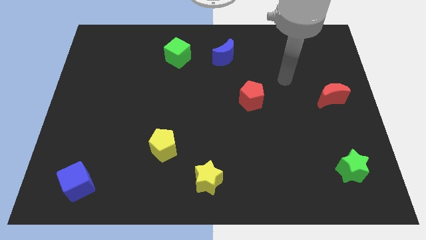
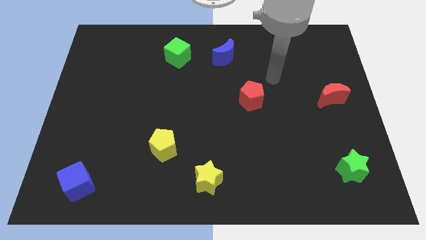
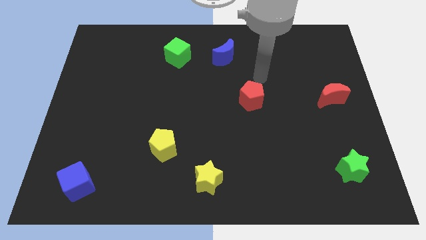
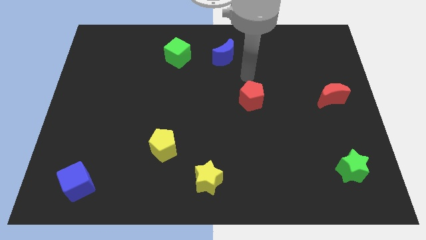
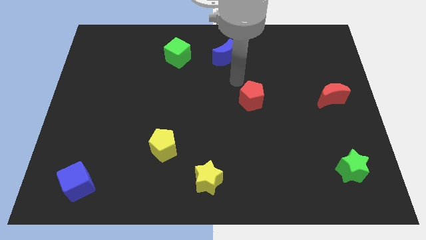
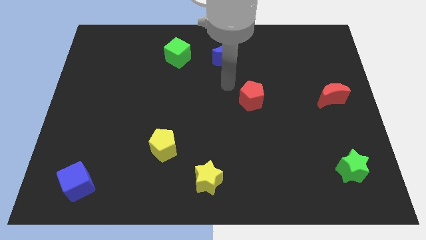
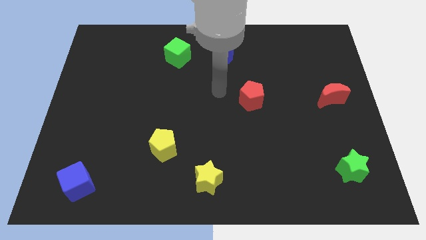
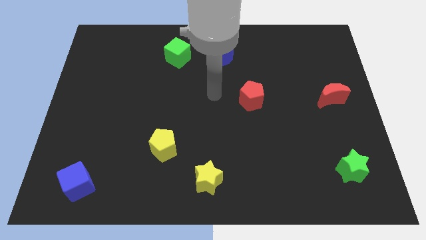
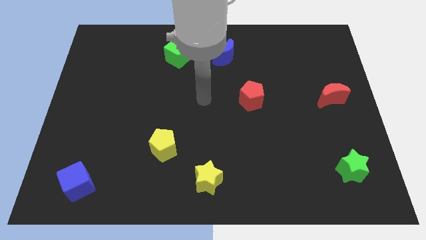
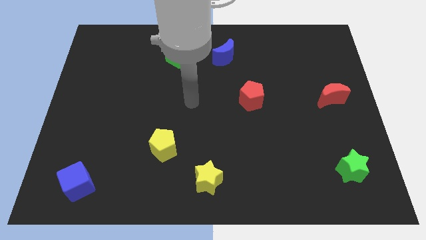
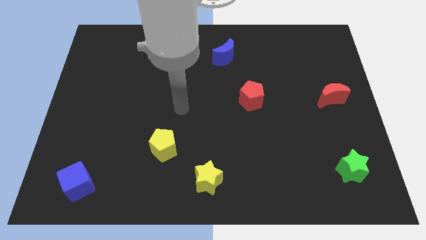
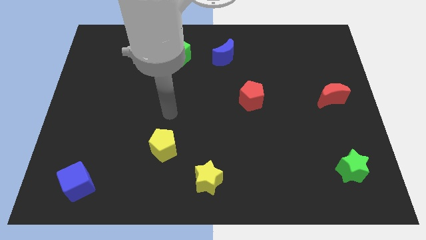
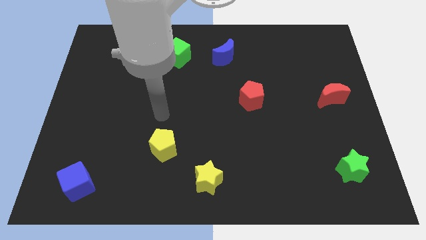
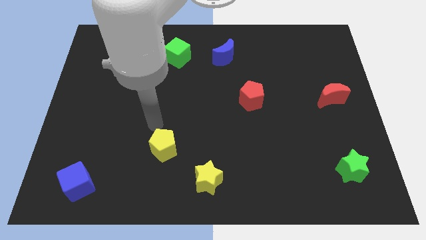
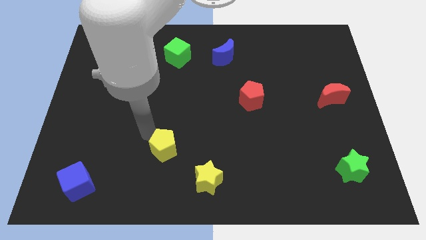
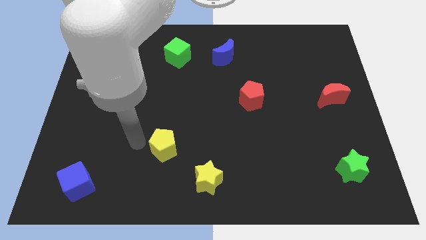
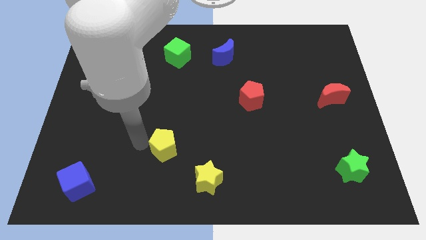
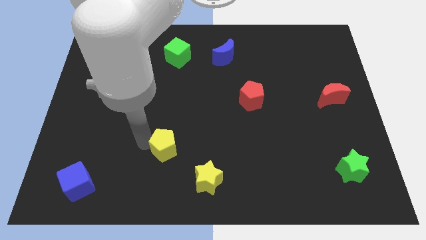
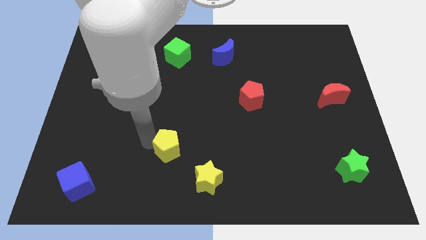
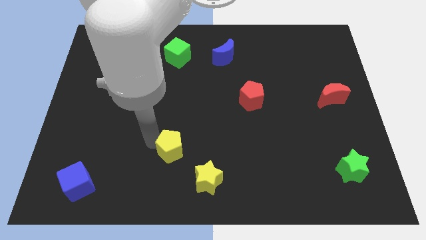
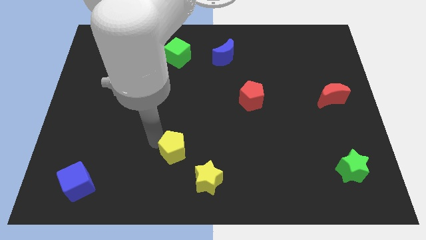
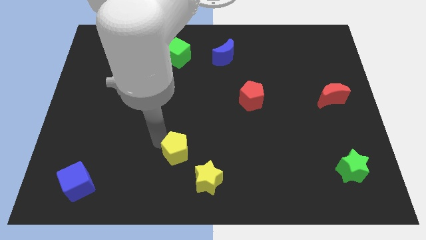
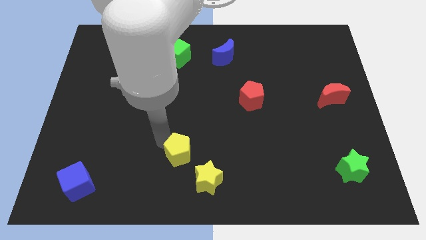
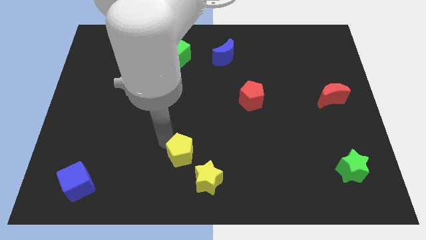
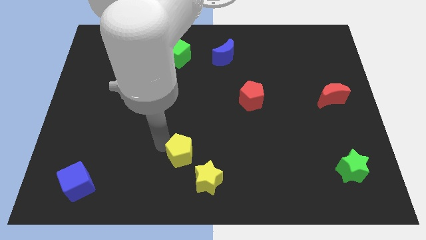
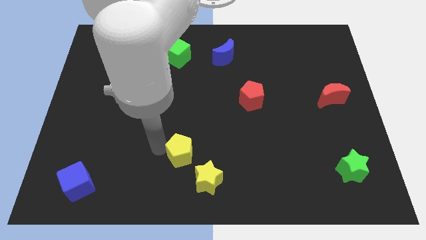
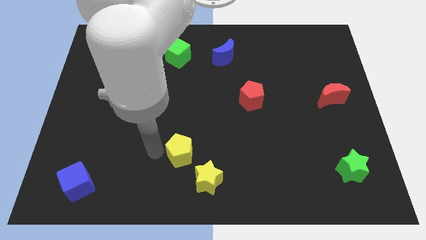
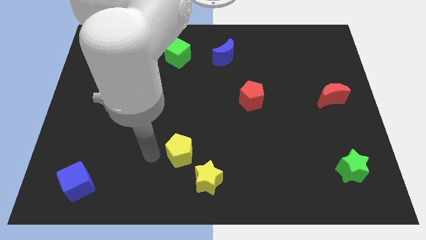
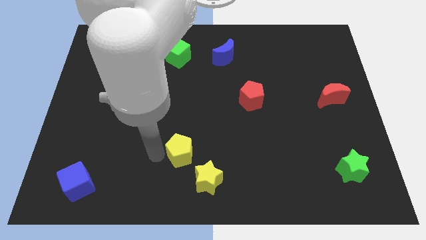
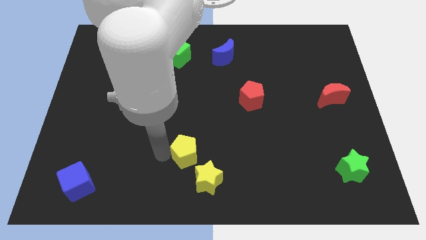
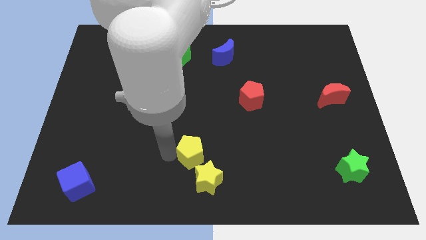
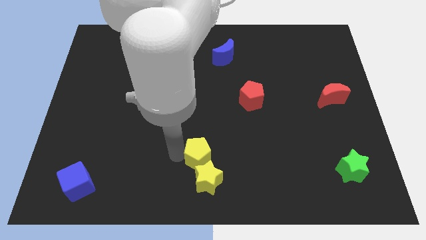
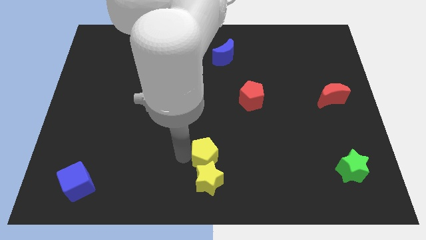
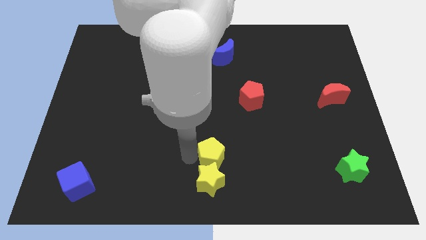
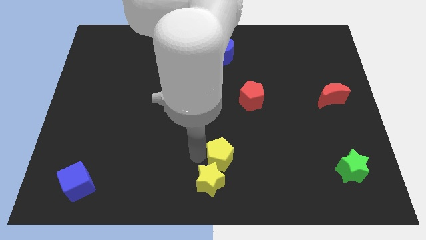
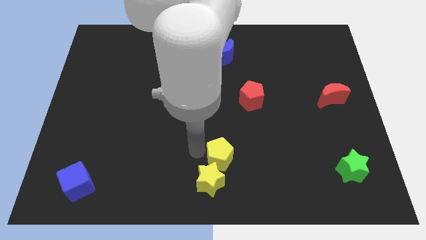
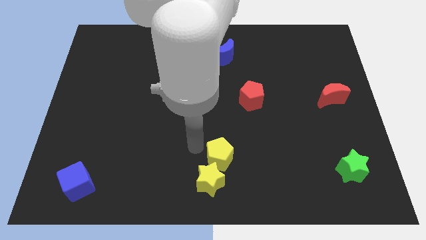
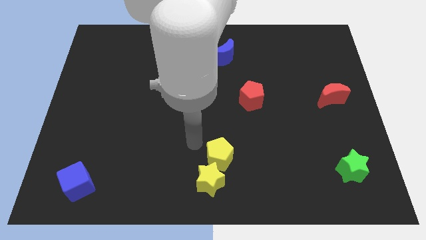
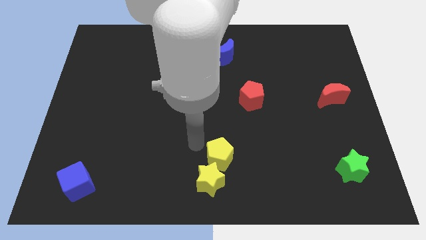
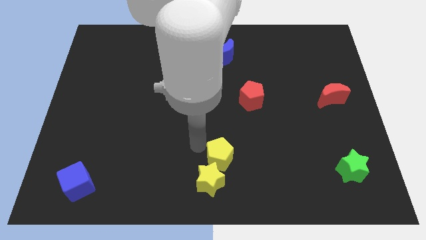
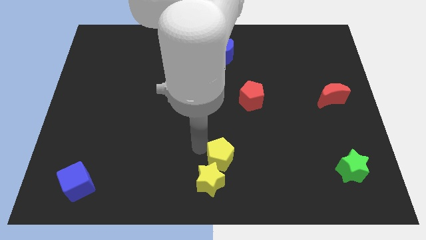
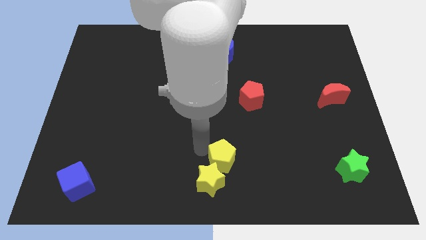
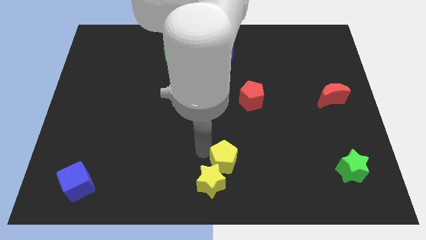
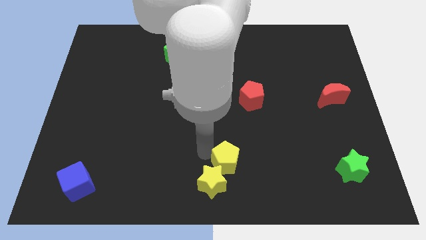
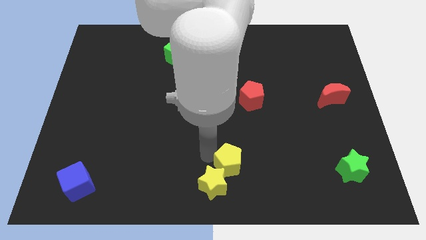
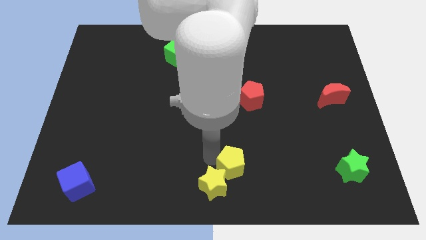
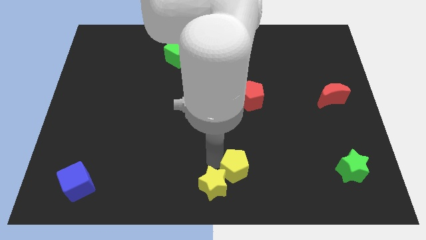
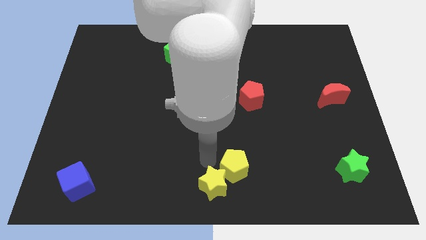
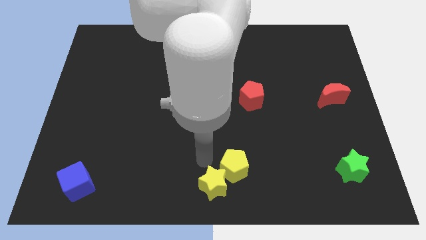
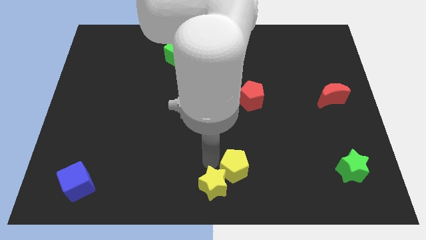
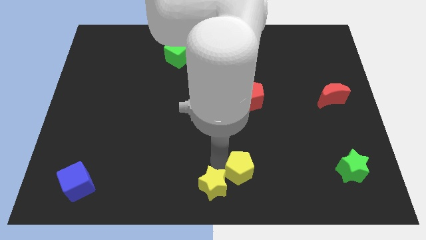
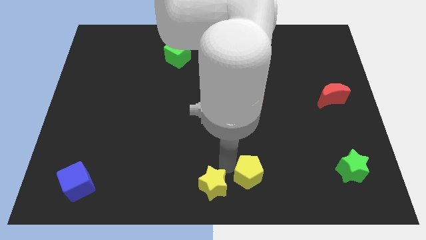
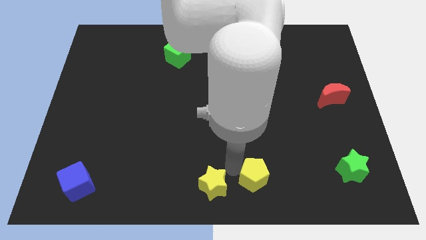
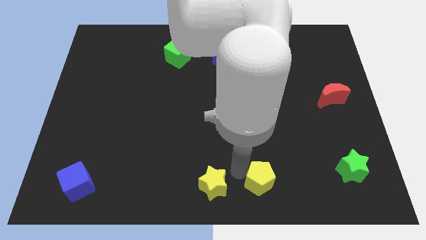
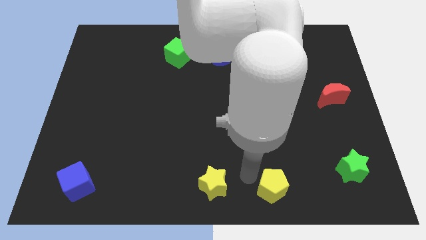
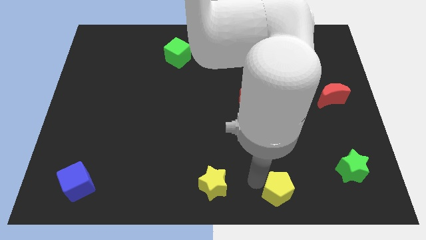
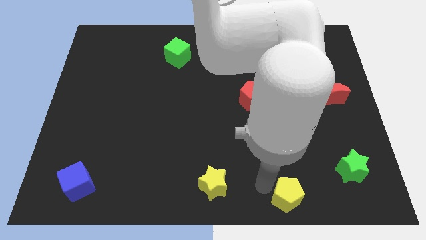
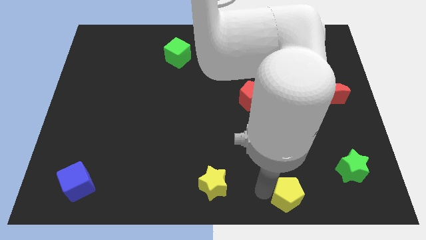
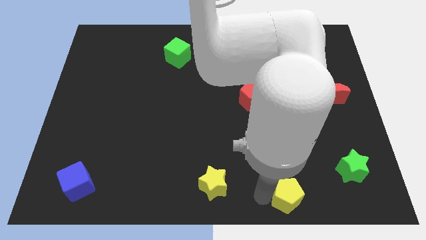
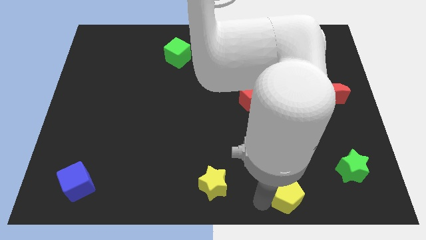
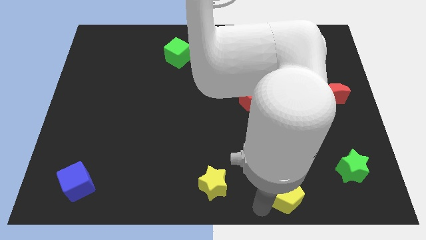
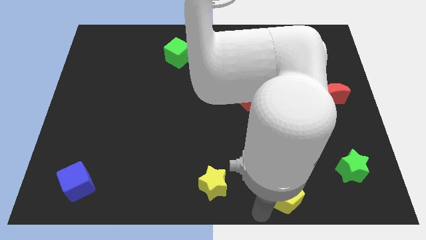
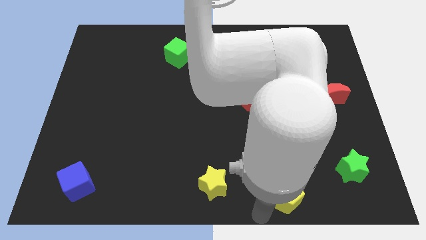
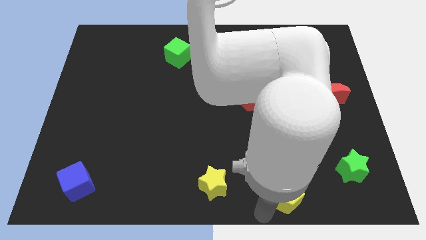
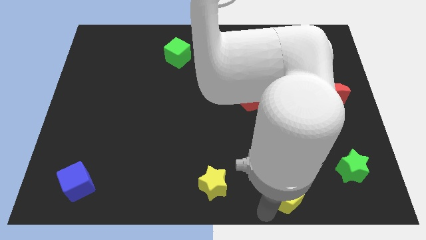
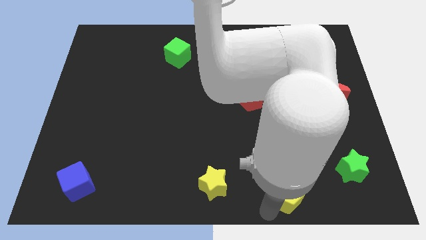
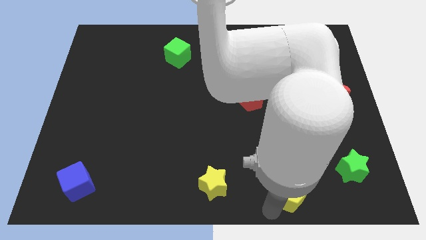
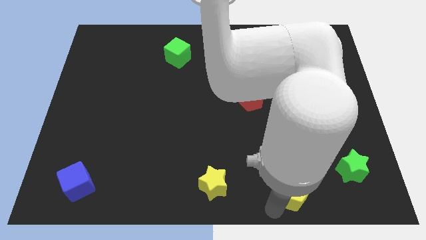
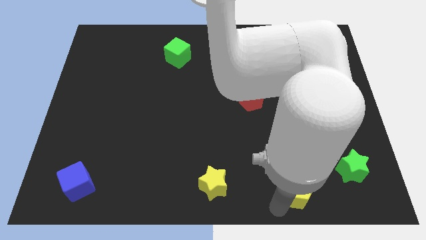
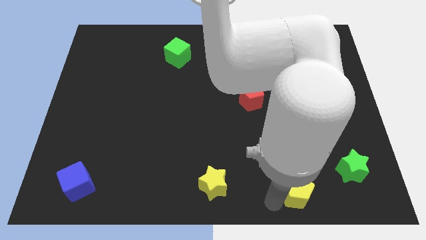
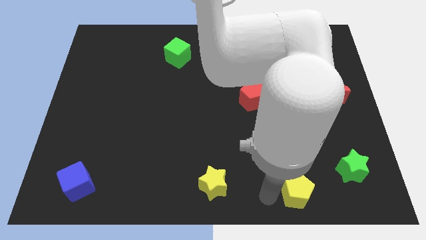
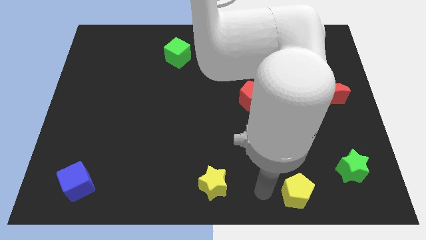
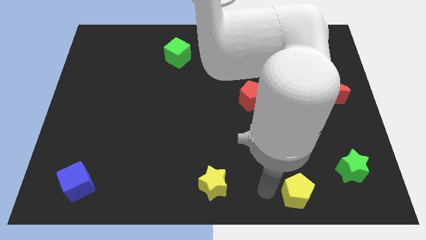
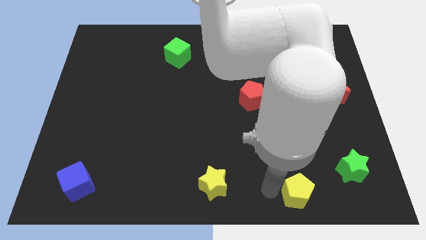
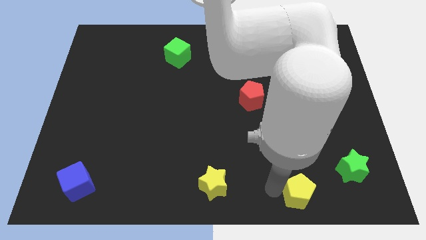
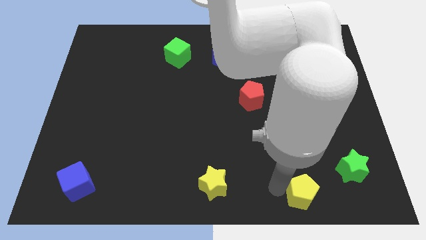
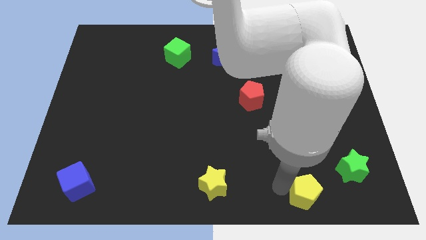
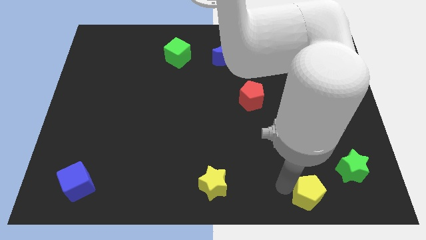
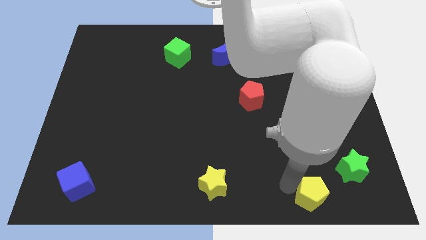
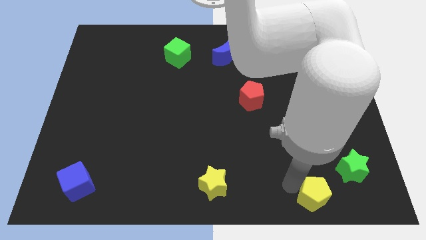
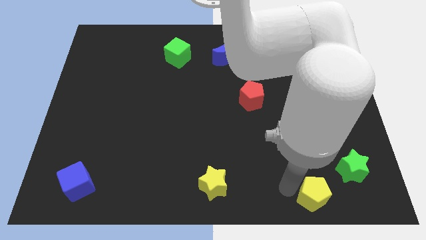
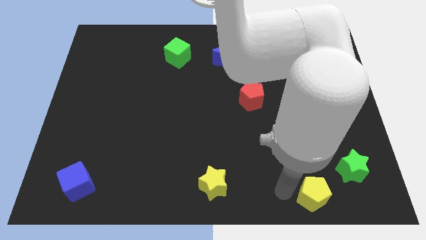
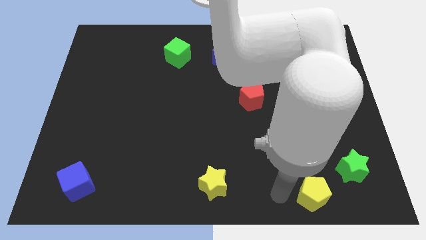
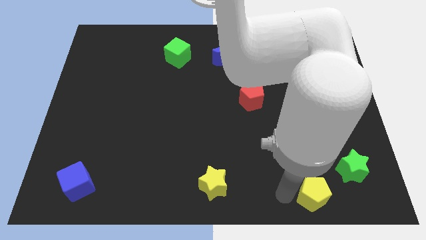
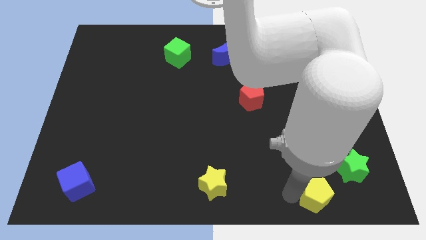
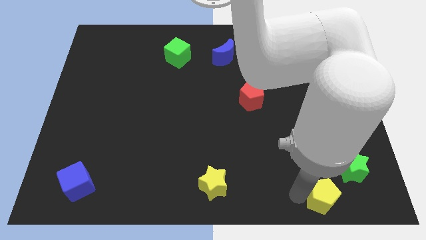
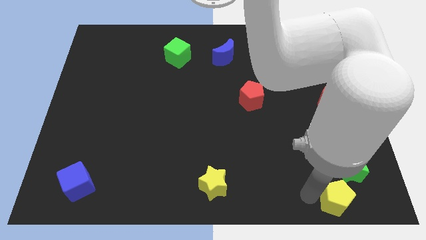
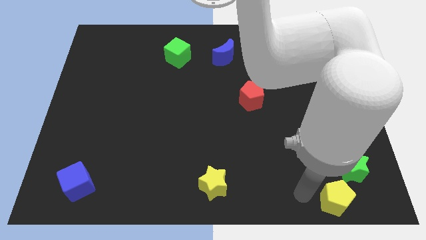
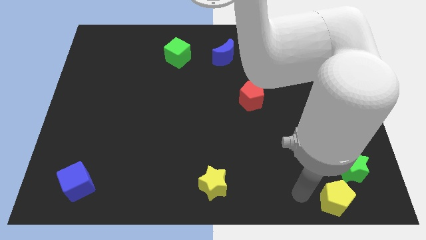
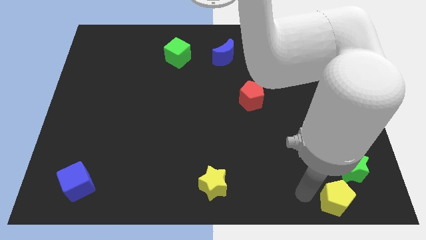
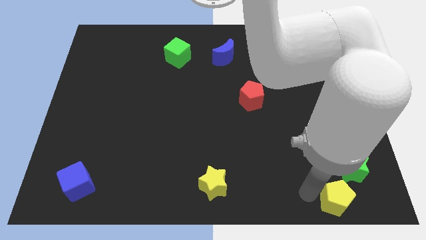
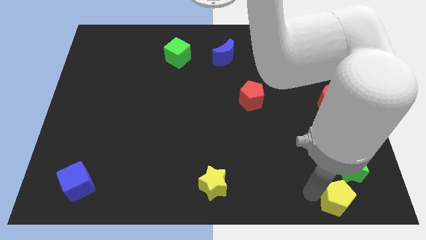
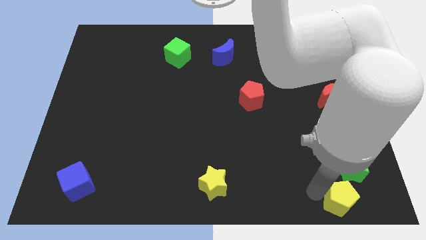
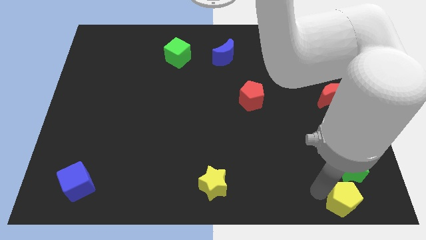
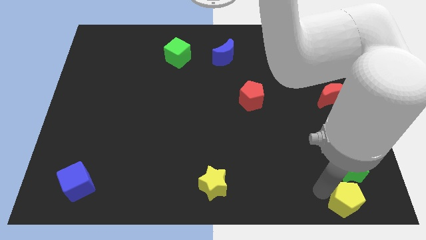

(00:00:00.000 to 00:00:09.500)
push the yellow pentagon to the bottom right
